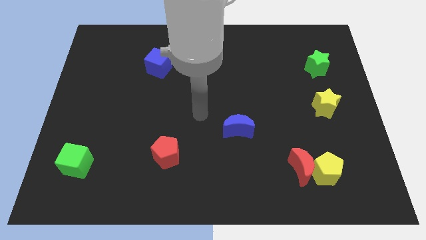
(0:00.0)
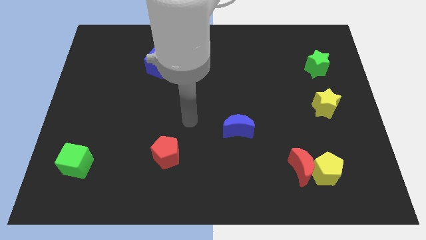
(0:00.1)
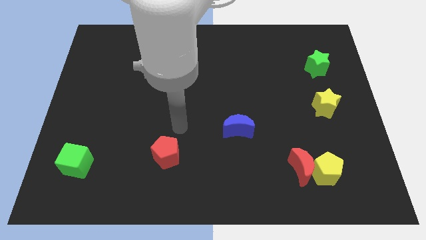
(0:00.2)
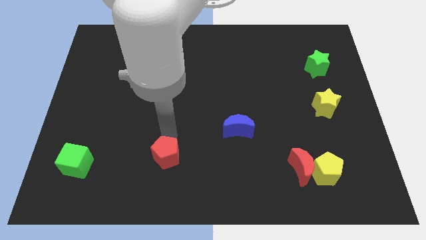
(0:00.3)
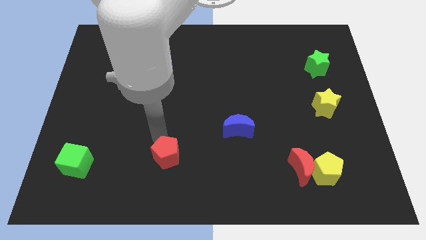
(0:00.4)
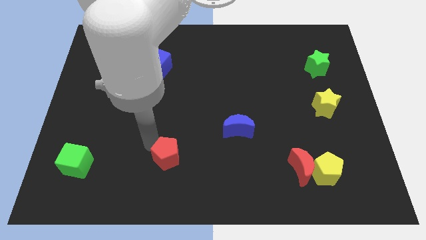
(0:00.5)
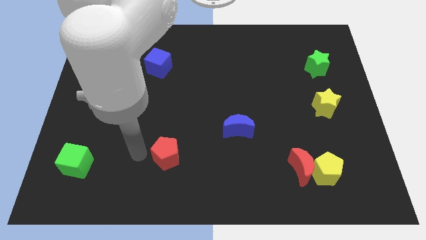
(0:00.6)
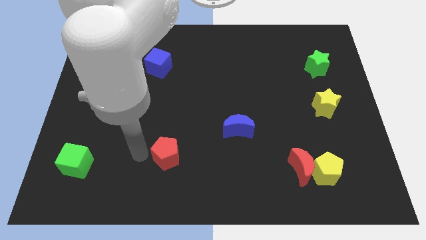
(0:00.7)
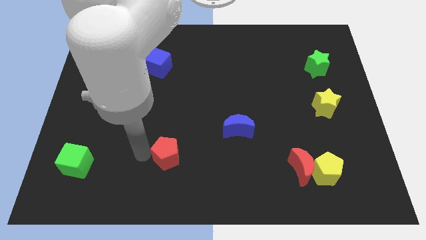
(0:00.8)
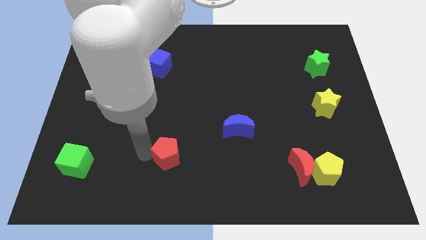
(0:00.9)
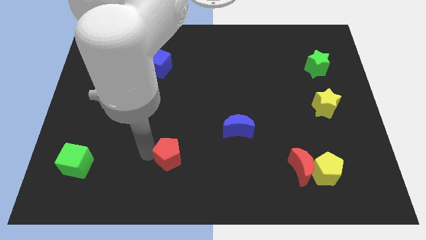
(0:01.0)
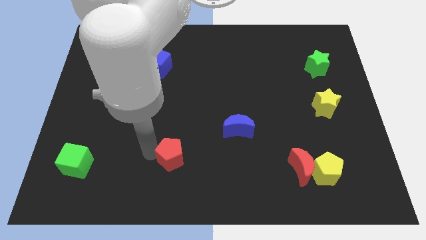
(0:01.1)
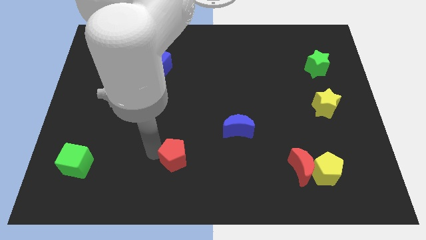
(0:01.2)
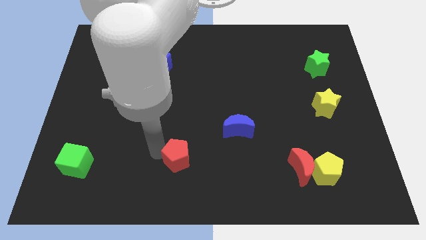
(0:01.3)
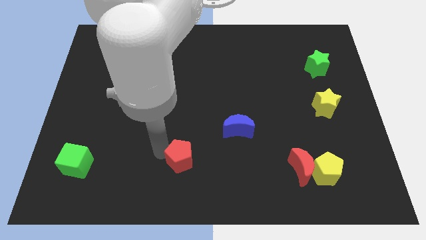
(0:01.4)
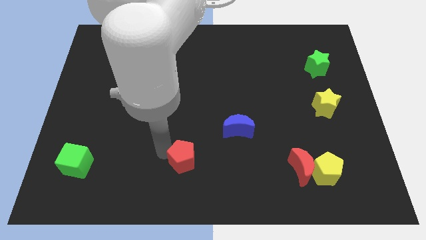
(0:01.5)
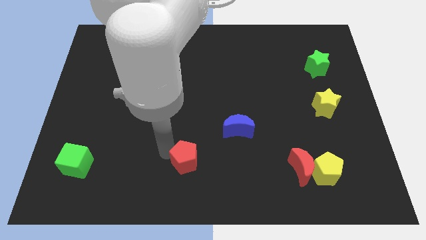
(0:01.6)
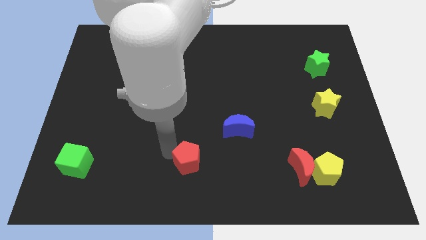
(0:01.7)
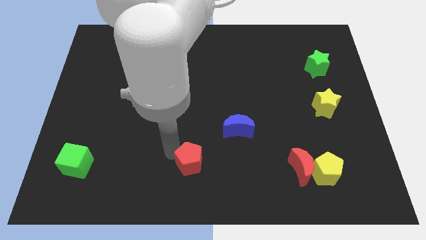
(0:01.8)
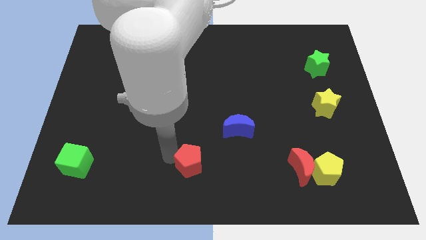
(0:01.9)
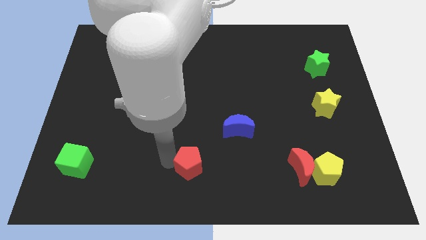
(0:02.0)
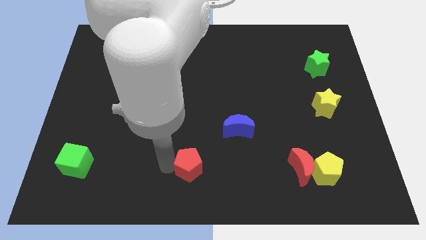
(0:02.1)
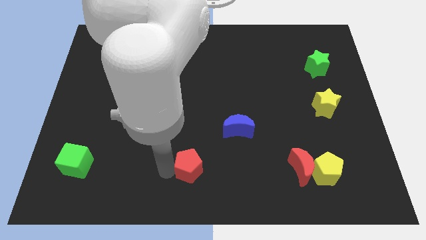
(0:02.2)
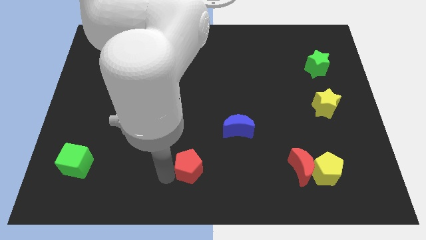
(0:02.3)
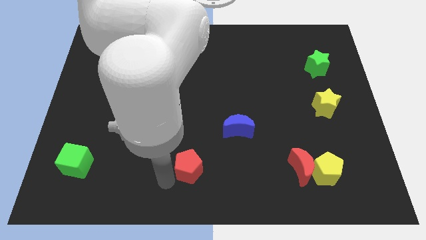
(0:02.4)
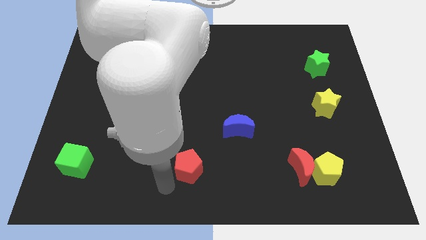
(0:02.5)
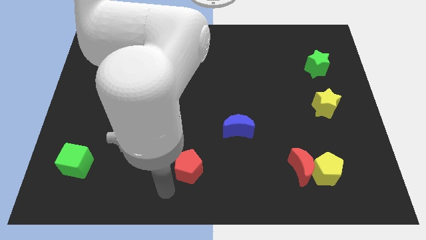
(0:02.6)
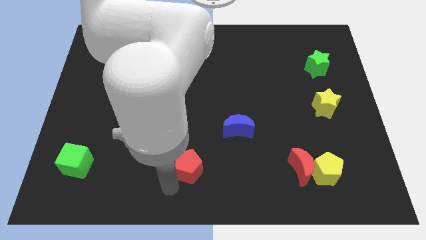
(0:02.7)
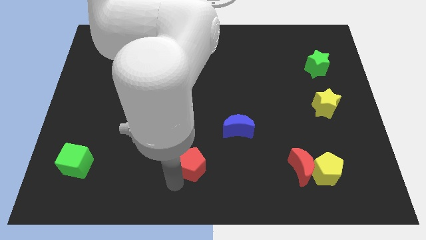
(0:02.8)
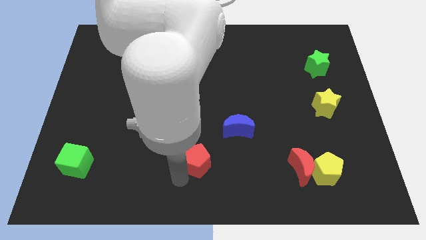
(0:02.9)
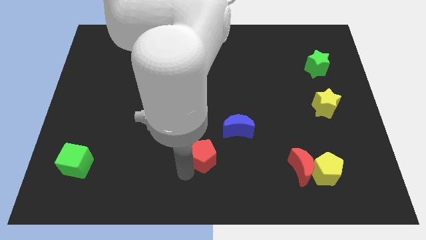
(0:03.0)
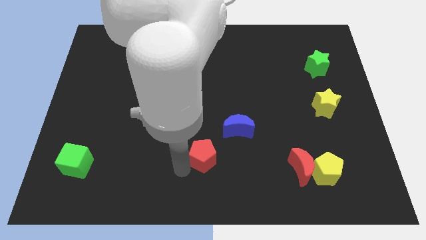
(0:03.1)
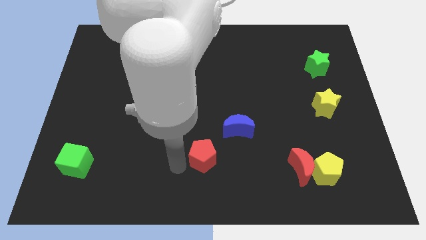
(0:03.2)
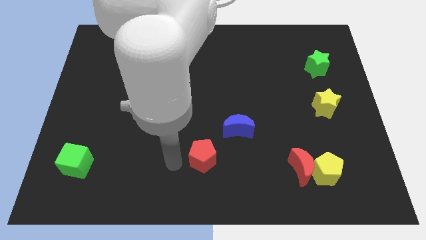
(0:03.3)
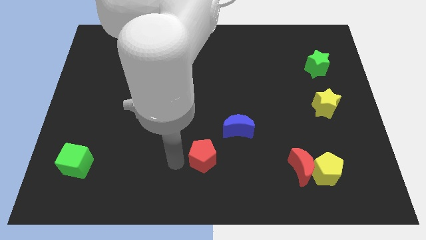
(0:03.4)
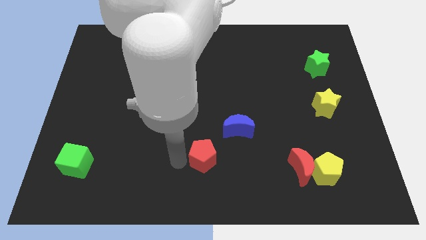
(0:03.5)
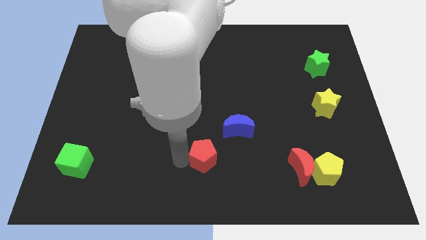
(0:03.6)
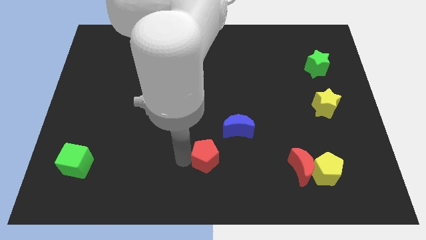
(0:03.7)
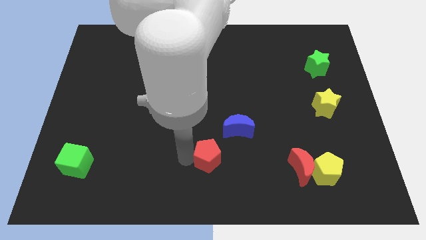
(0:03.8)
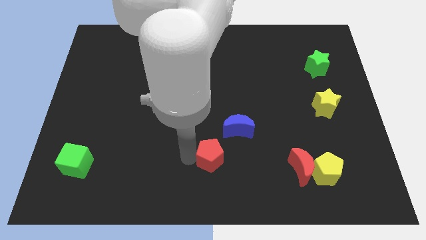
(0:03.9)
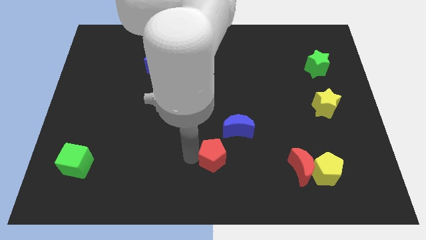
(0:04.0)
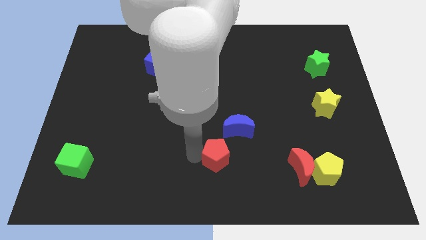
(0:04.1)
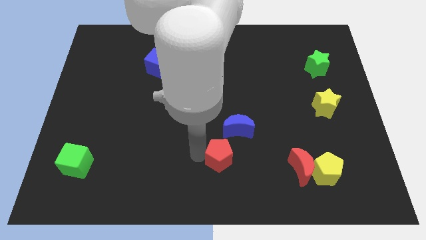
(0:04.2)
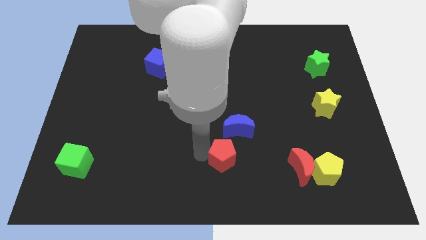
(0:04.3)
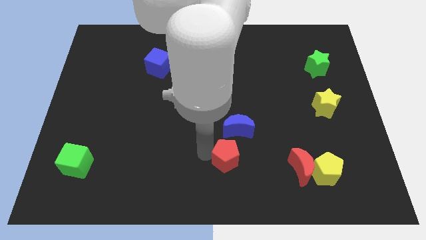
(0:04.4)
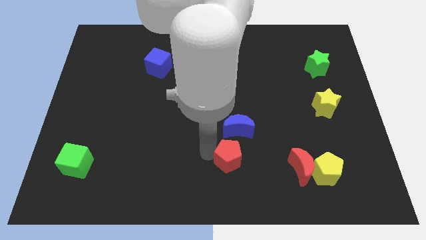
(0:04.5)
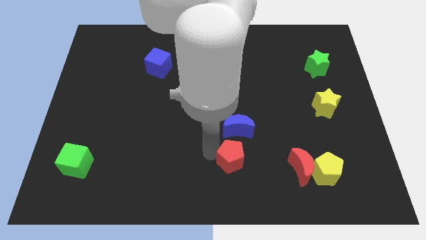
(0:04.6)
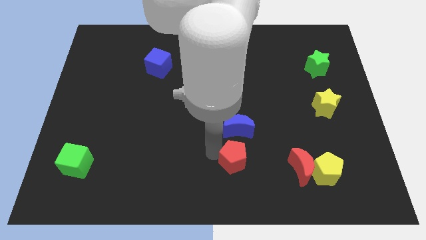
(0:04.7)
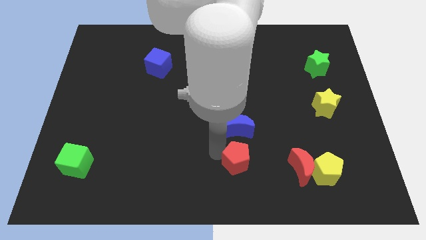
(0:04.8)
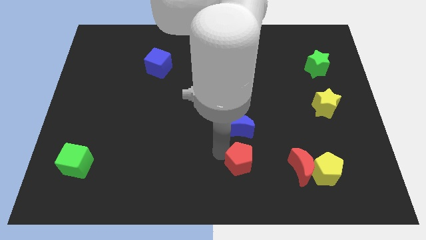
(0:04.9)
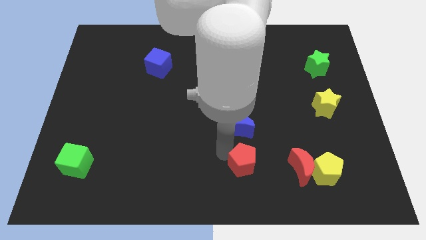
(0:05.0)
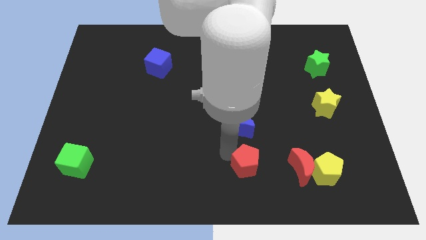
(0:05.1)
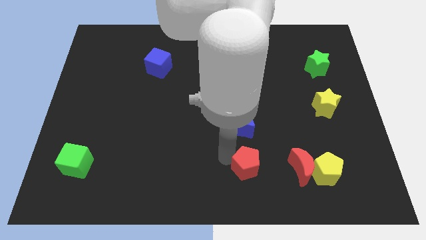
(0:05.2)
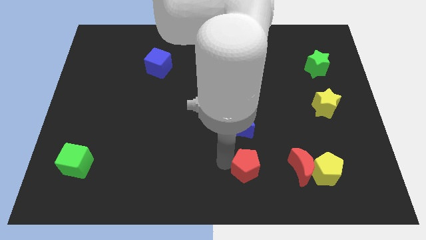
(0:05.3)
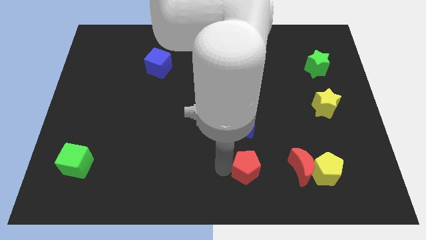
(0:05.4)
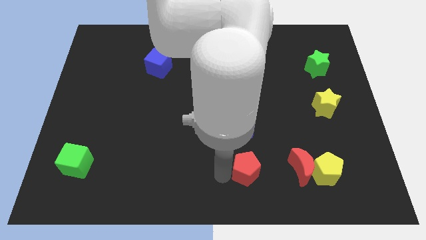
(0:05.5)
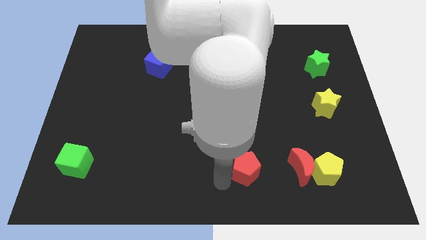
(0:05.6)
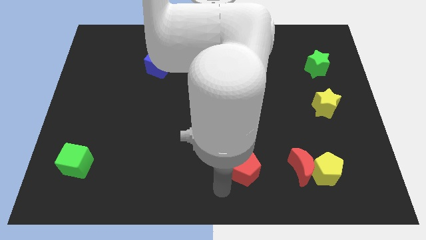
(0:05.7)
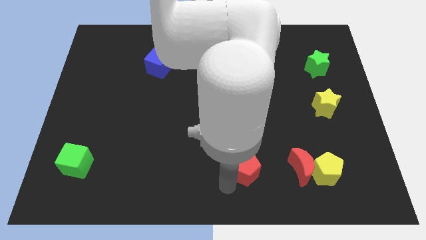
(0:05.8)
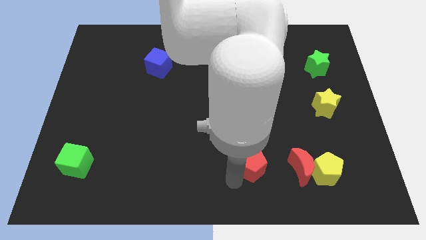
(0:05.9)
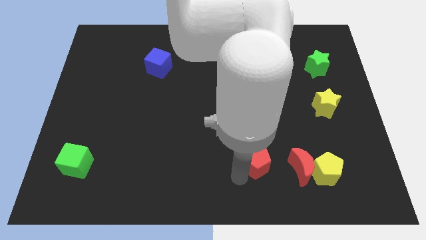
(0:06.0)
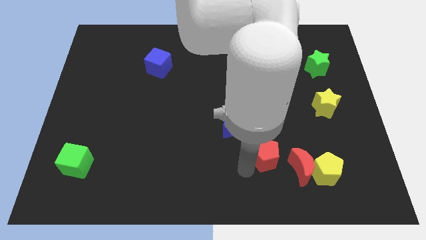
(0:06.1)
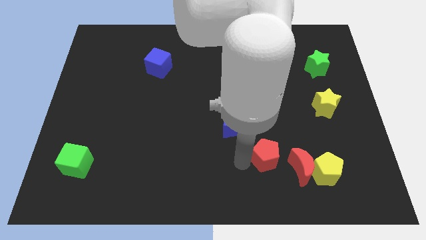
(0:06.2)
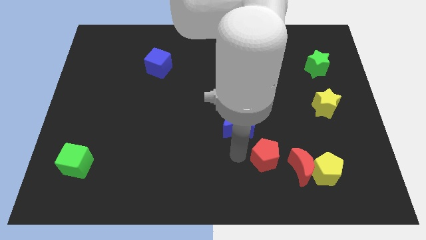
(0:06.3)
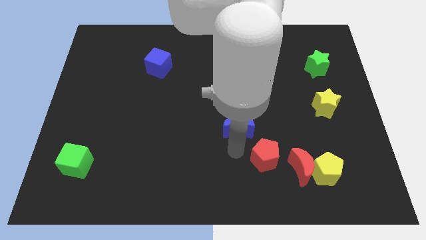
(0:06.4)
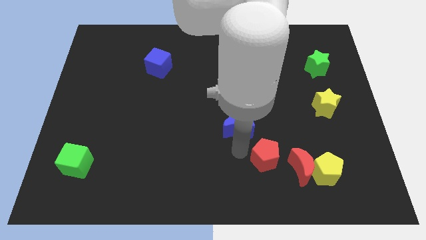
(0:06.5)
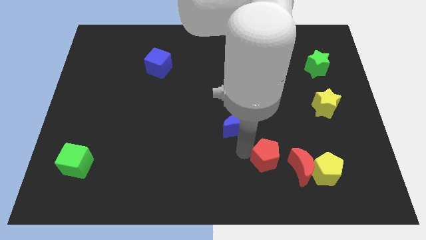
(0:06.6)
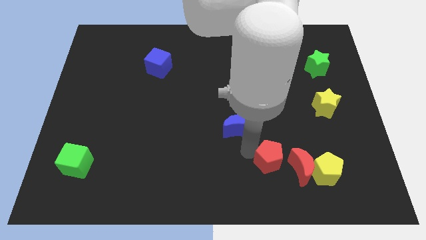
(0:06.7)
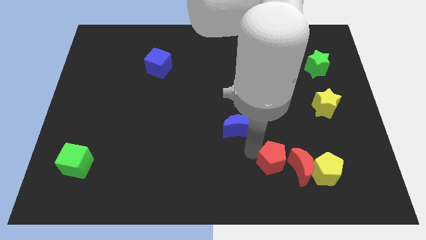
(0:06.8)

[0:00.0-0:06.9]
slide the red pentagon close to the red moon

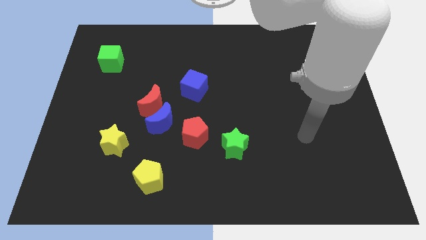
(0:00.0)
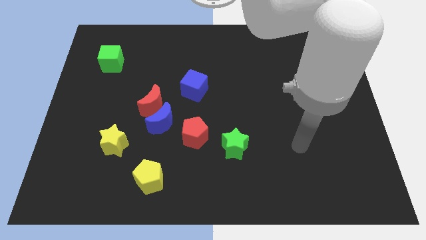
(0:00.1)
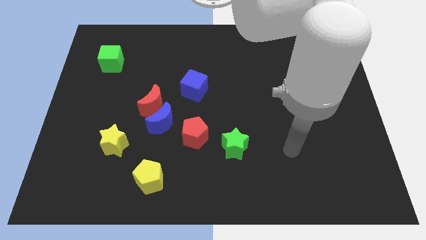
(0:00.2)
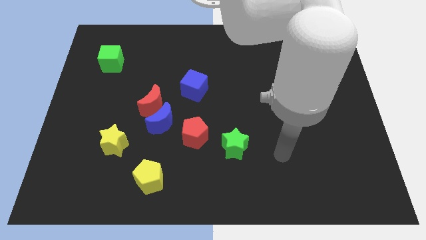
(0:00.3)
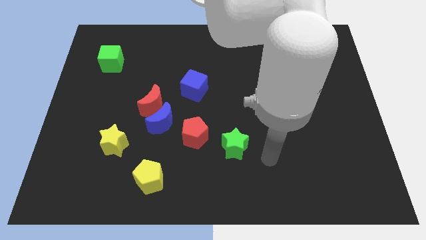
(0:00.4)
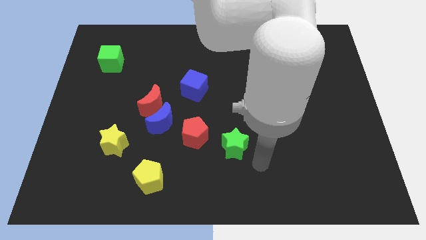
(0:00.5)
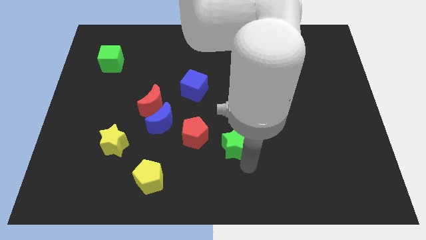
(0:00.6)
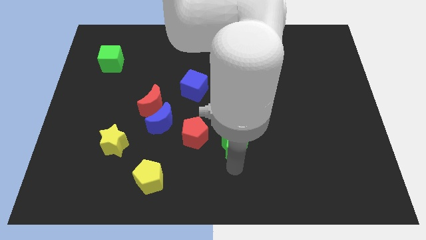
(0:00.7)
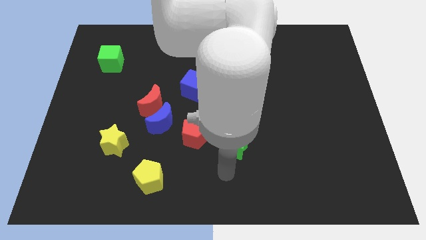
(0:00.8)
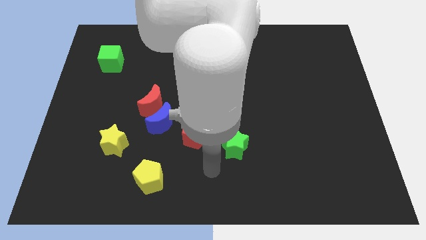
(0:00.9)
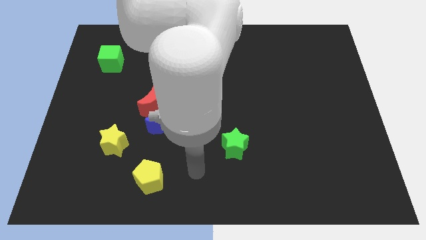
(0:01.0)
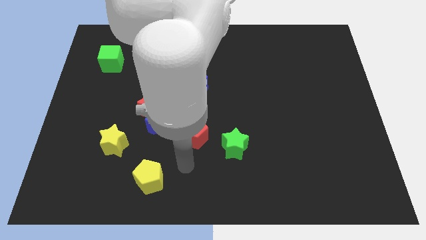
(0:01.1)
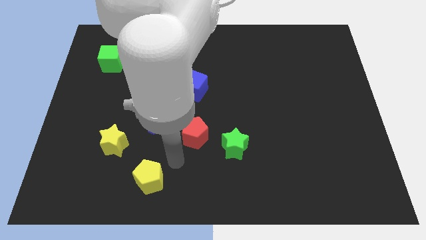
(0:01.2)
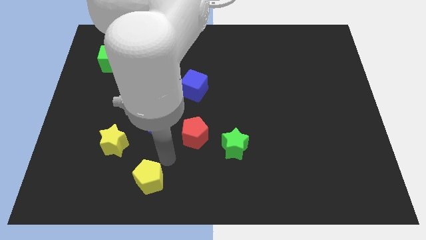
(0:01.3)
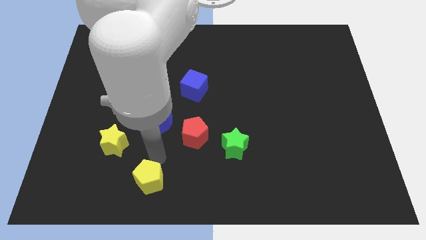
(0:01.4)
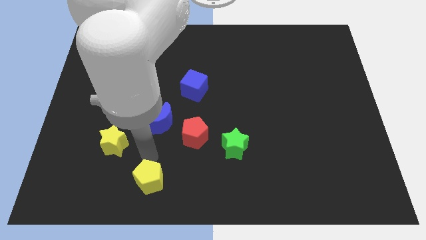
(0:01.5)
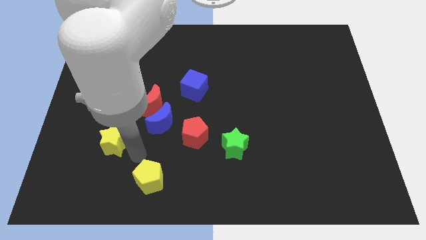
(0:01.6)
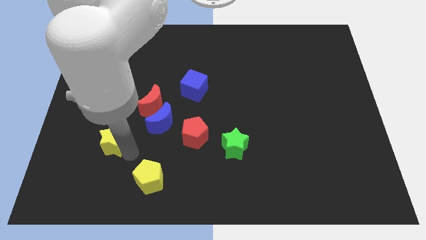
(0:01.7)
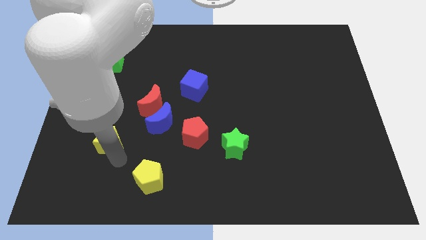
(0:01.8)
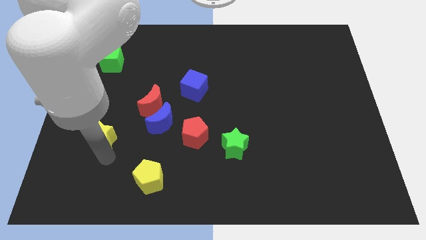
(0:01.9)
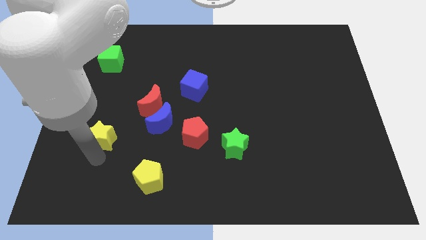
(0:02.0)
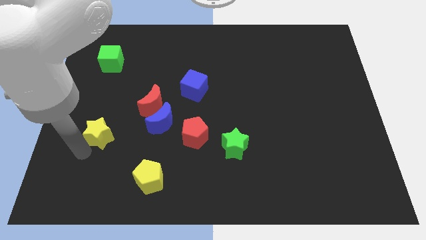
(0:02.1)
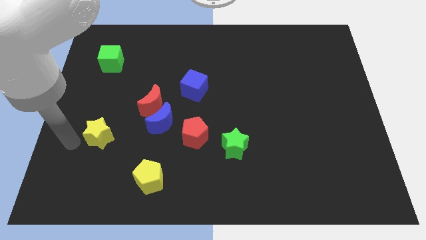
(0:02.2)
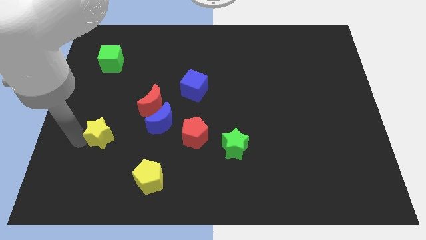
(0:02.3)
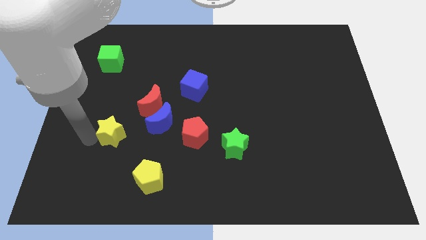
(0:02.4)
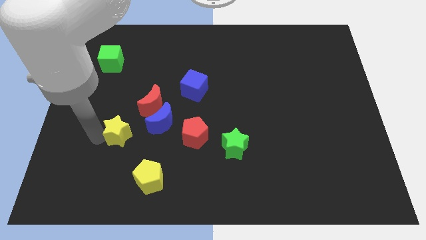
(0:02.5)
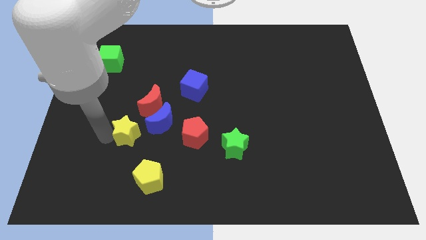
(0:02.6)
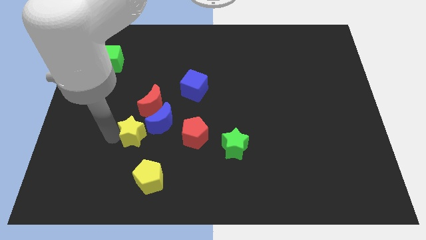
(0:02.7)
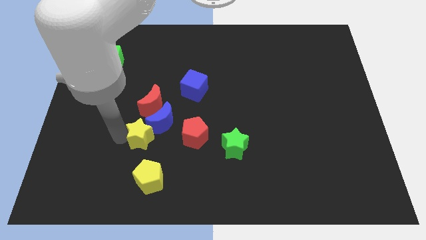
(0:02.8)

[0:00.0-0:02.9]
slide the yellow star close to the blue moon
